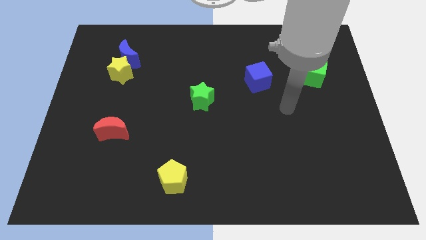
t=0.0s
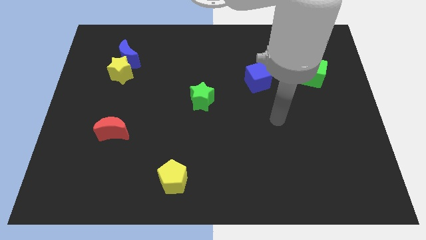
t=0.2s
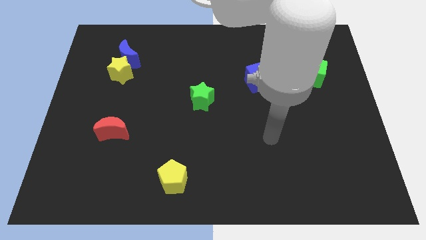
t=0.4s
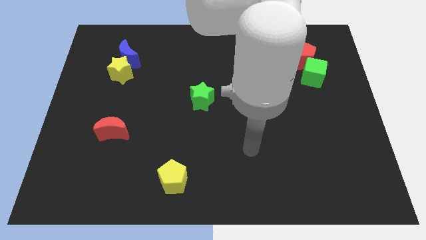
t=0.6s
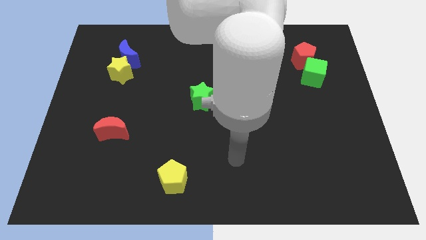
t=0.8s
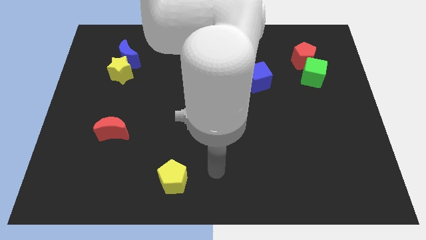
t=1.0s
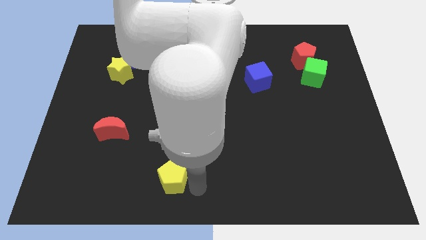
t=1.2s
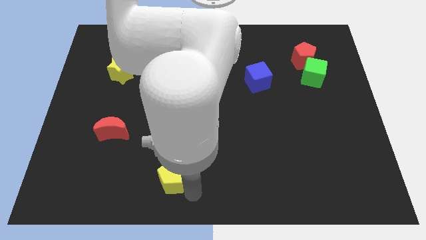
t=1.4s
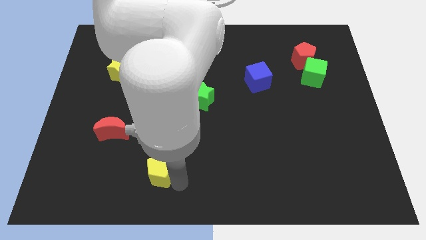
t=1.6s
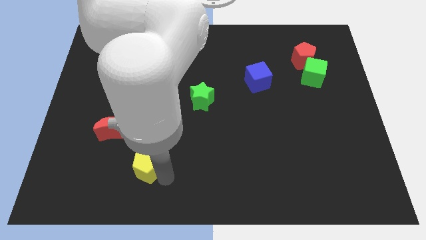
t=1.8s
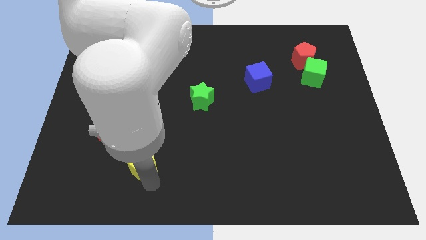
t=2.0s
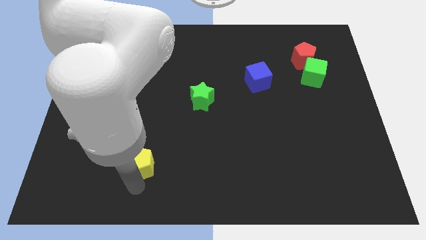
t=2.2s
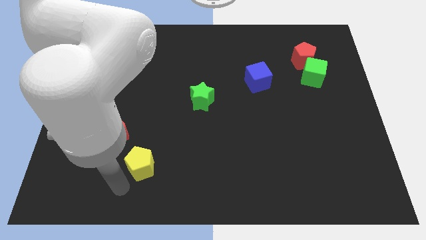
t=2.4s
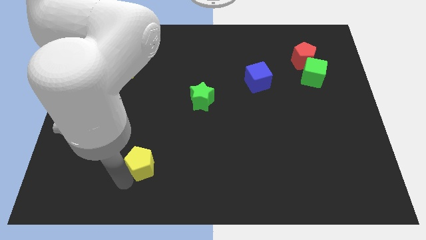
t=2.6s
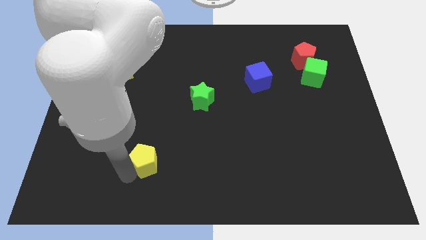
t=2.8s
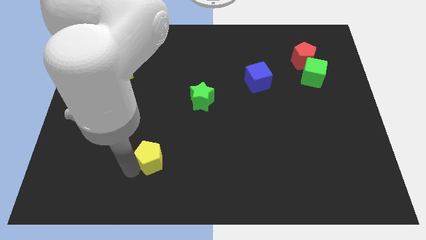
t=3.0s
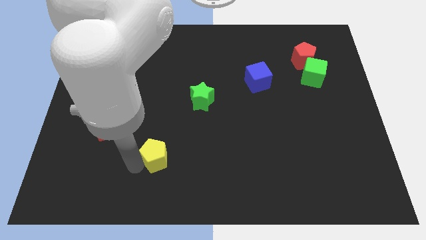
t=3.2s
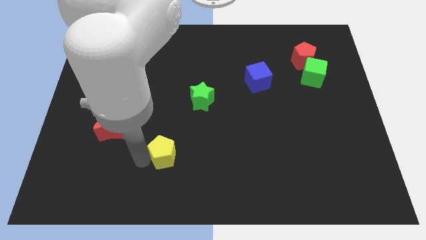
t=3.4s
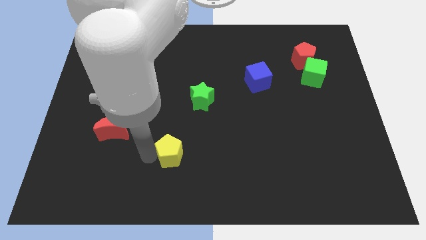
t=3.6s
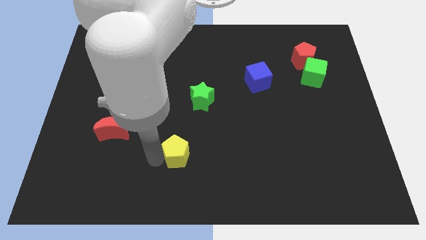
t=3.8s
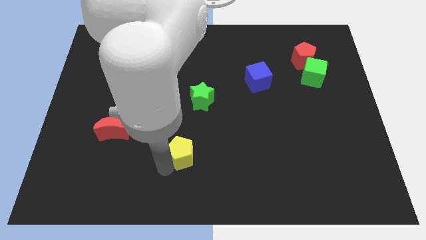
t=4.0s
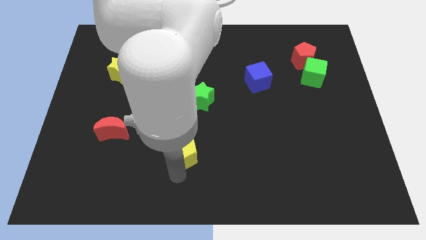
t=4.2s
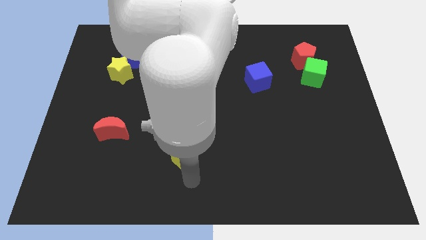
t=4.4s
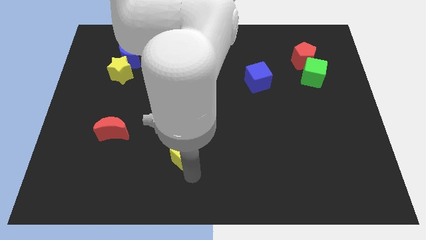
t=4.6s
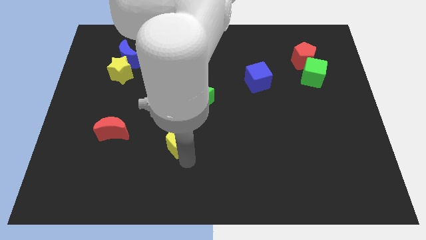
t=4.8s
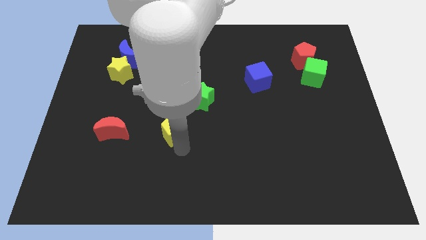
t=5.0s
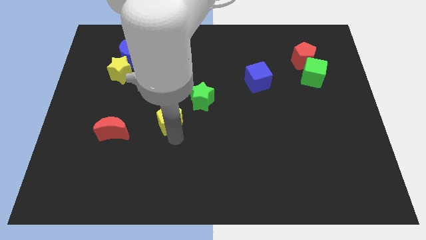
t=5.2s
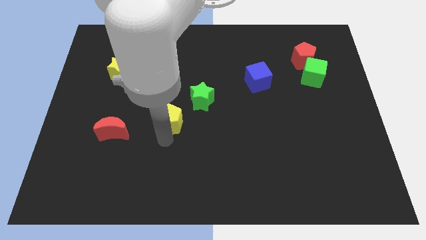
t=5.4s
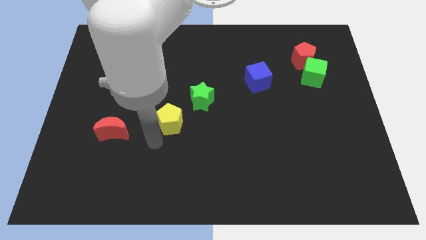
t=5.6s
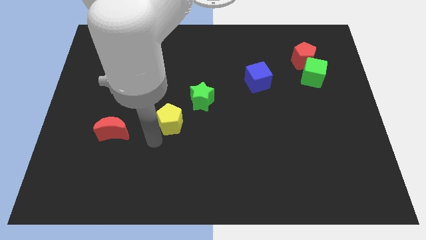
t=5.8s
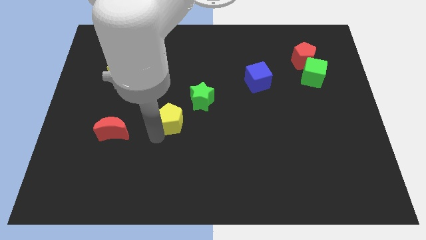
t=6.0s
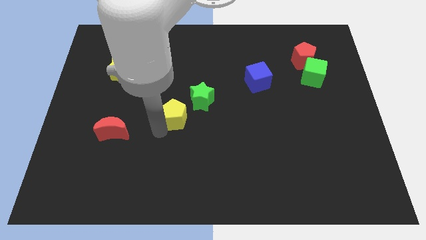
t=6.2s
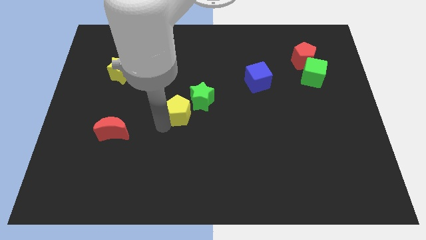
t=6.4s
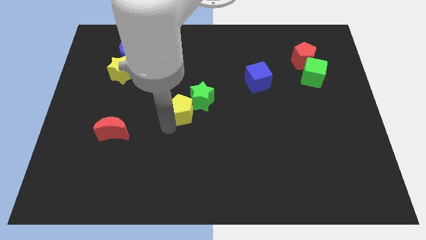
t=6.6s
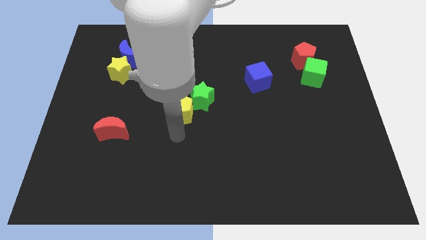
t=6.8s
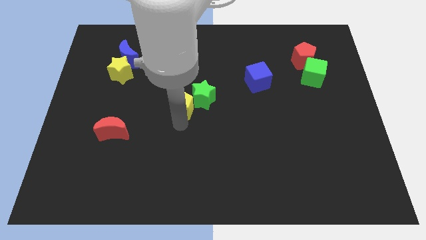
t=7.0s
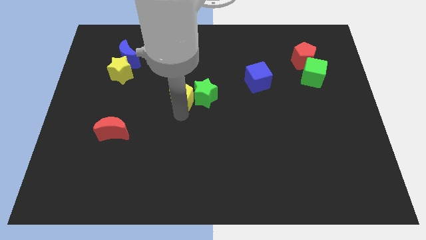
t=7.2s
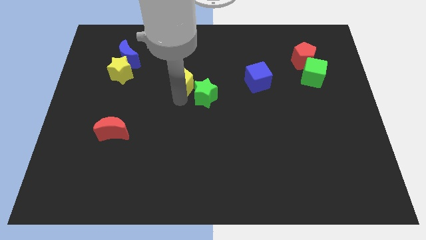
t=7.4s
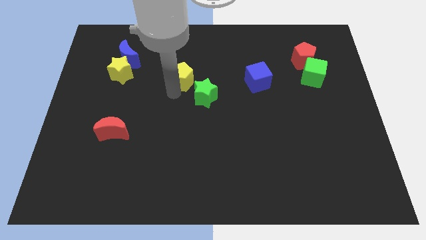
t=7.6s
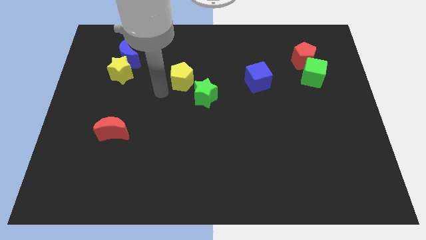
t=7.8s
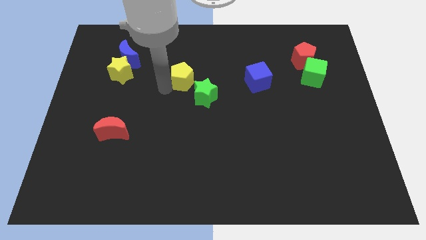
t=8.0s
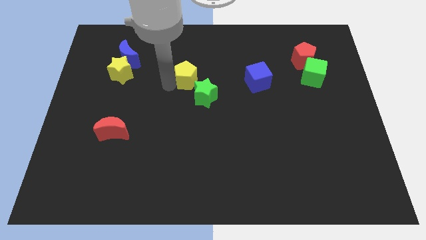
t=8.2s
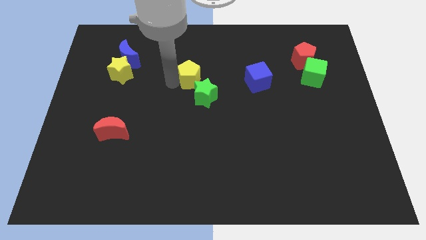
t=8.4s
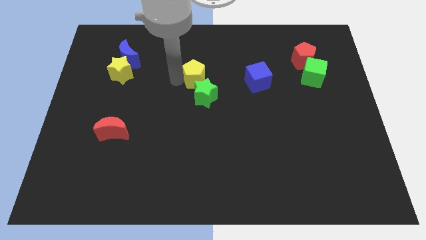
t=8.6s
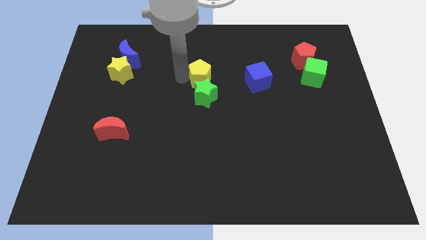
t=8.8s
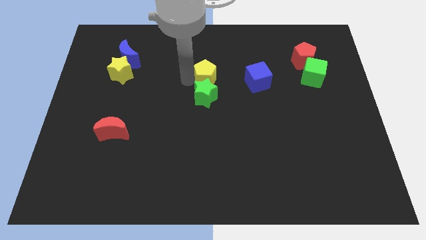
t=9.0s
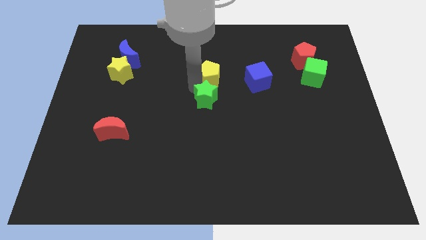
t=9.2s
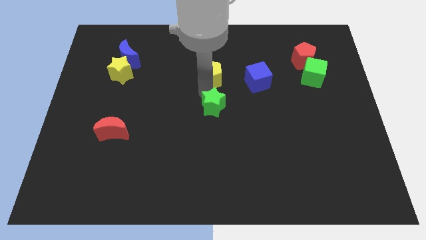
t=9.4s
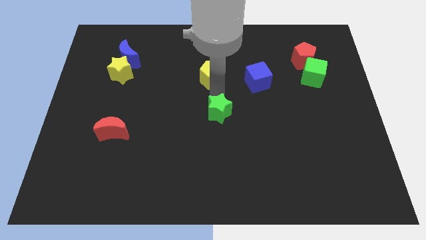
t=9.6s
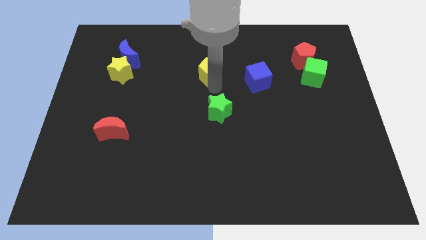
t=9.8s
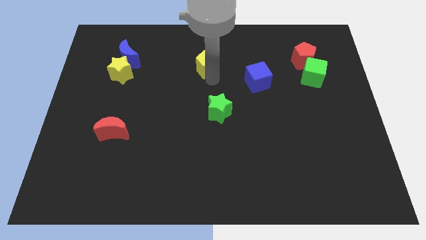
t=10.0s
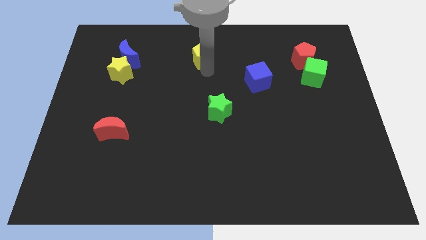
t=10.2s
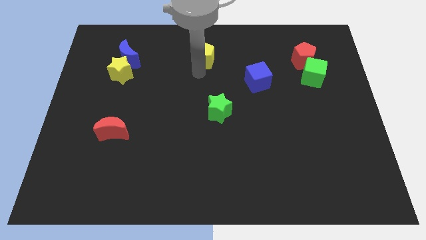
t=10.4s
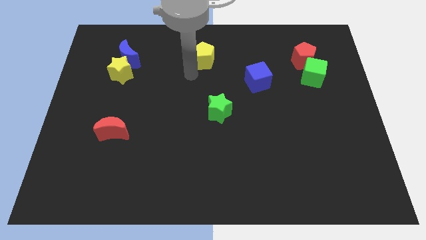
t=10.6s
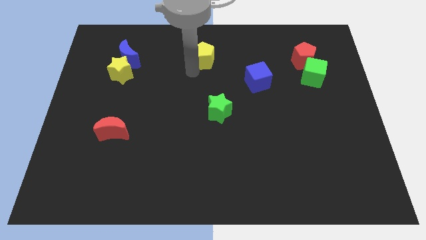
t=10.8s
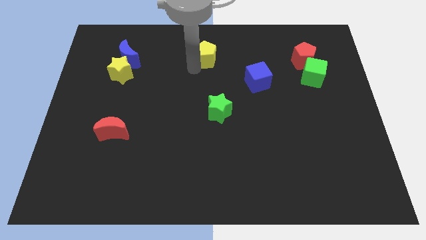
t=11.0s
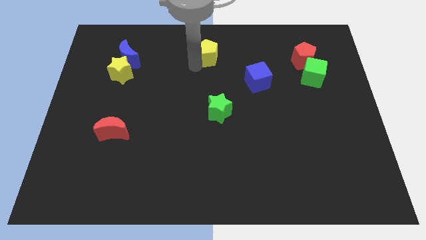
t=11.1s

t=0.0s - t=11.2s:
put the yellow pentagon to the top side

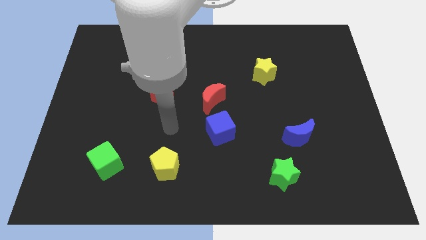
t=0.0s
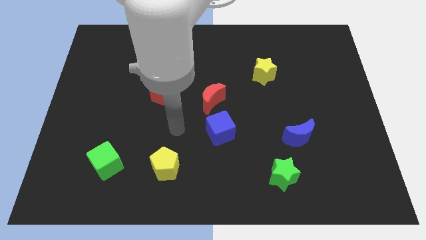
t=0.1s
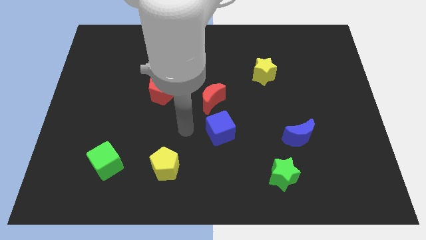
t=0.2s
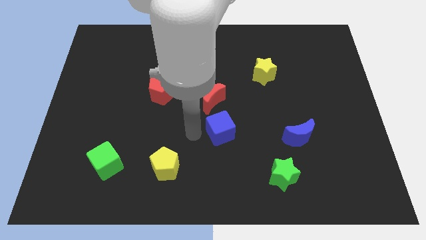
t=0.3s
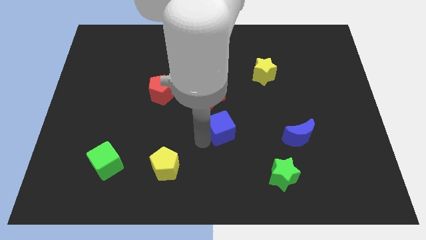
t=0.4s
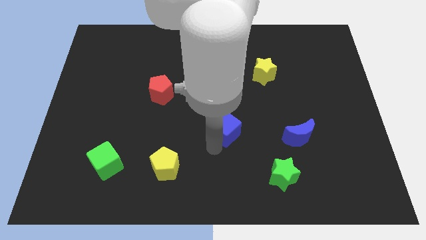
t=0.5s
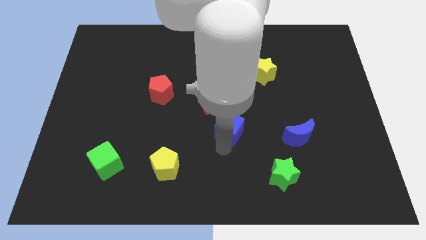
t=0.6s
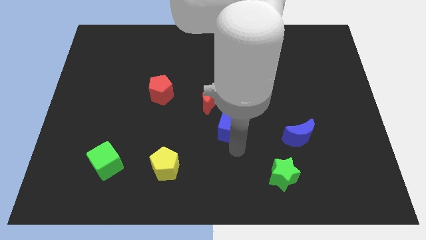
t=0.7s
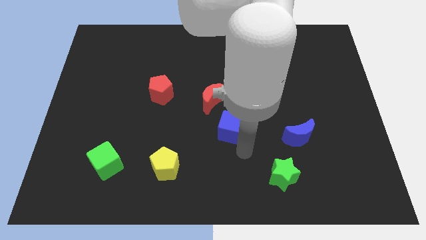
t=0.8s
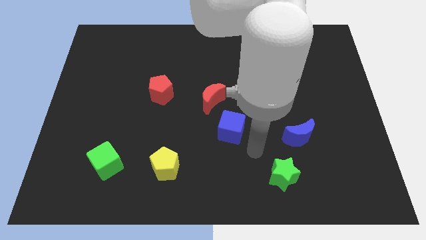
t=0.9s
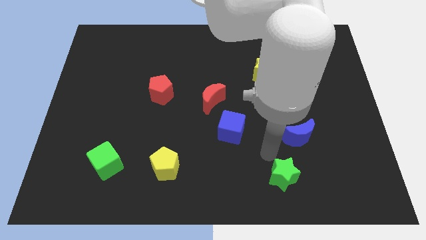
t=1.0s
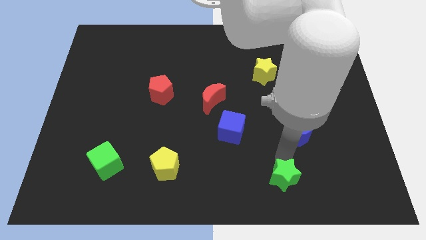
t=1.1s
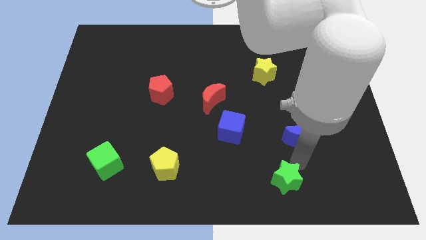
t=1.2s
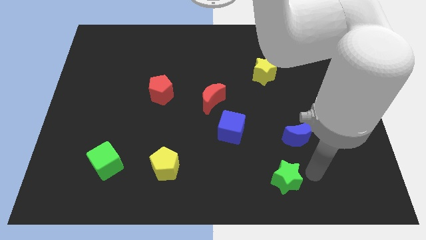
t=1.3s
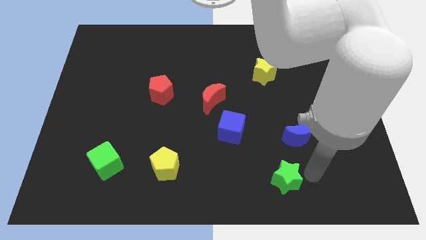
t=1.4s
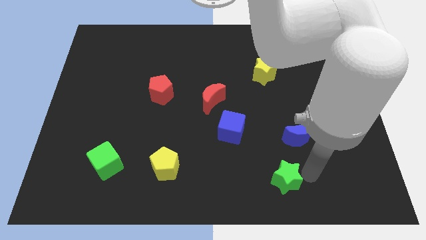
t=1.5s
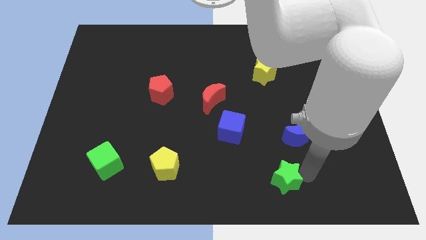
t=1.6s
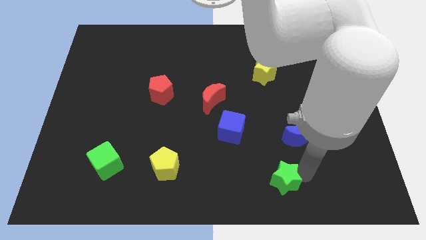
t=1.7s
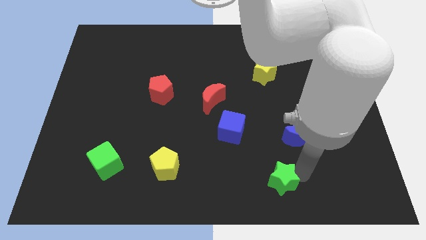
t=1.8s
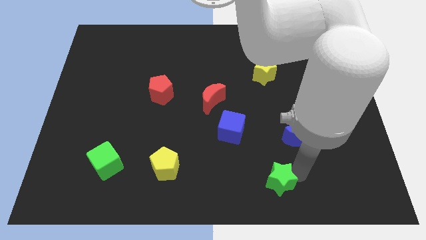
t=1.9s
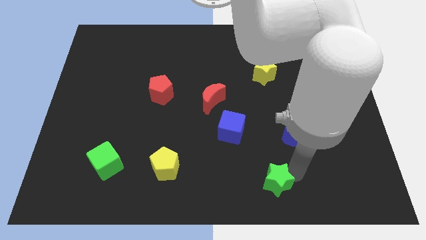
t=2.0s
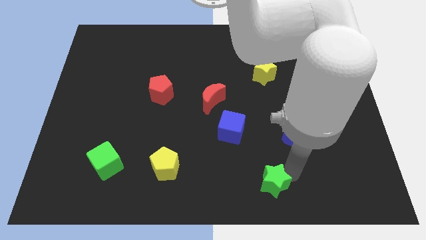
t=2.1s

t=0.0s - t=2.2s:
move the green star to the bottom
